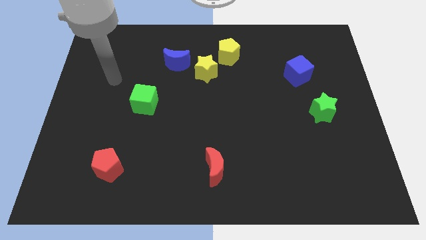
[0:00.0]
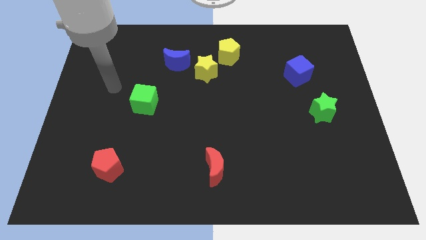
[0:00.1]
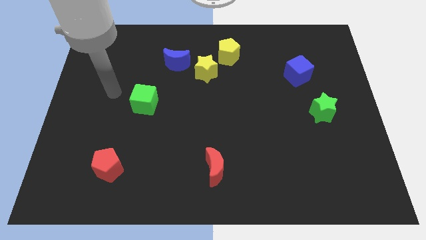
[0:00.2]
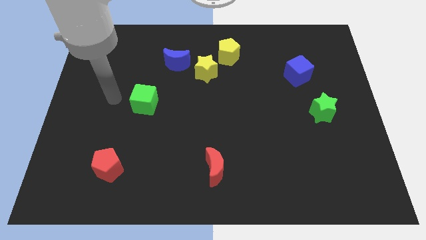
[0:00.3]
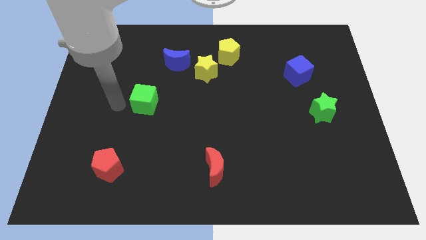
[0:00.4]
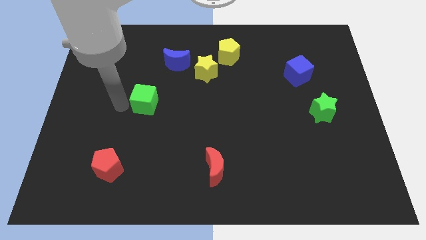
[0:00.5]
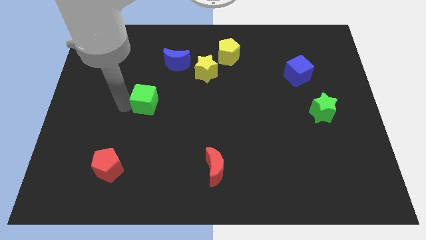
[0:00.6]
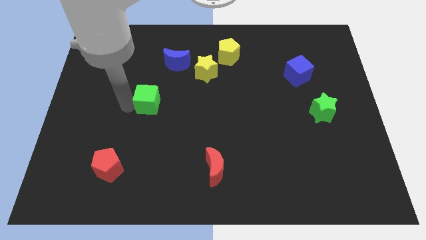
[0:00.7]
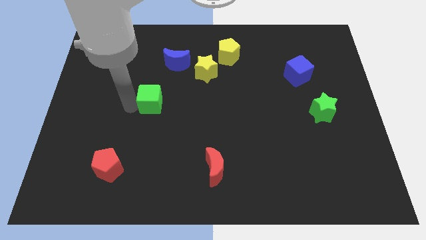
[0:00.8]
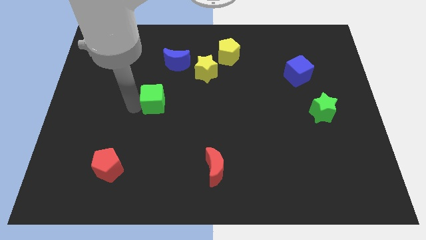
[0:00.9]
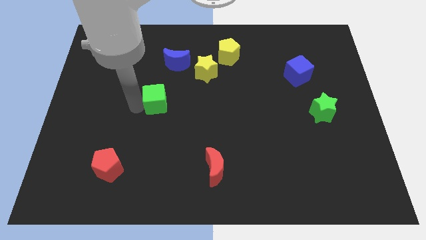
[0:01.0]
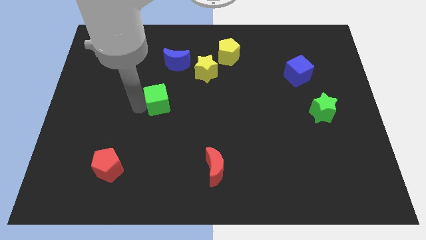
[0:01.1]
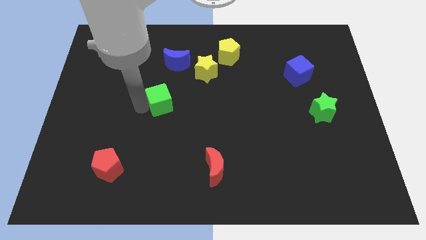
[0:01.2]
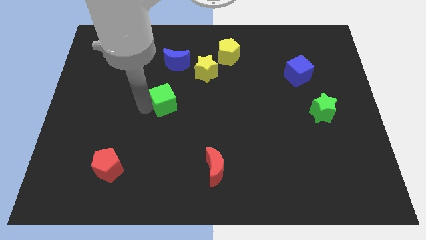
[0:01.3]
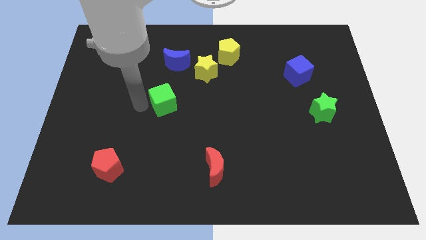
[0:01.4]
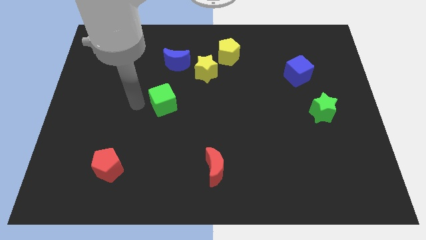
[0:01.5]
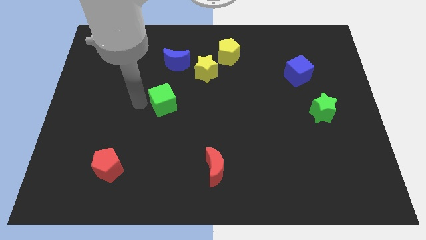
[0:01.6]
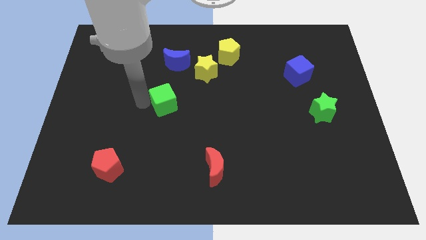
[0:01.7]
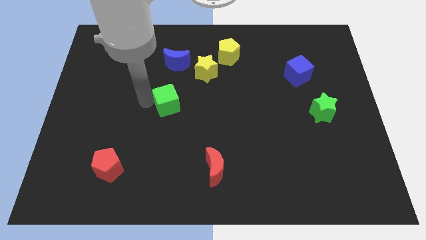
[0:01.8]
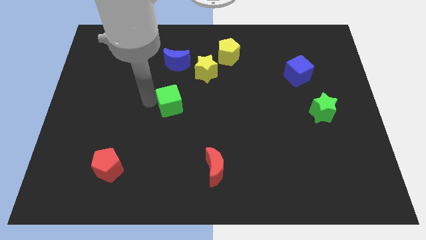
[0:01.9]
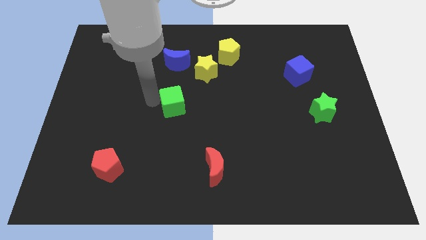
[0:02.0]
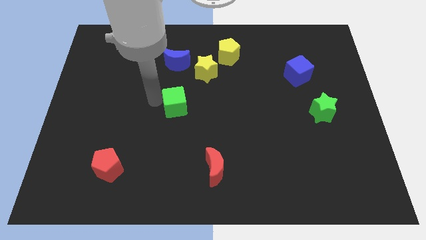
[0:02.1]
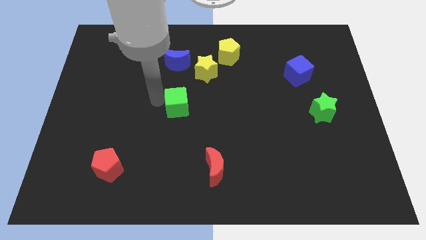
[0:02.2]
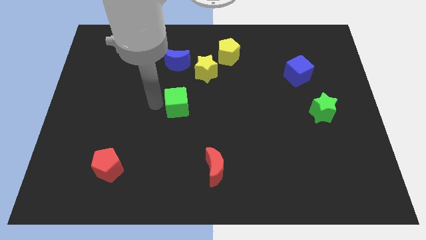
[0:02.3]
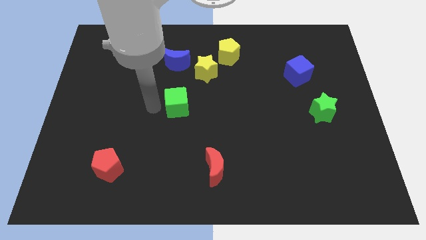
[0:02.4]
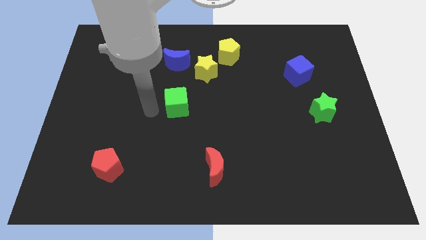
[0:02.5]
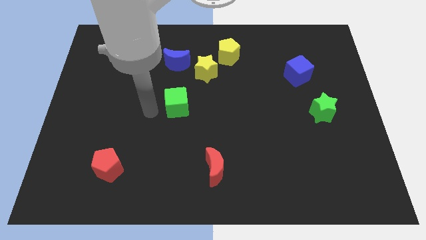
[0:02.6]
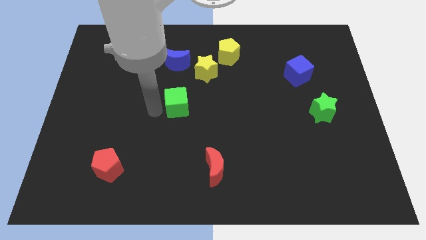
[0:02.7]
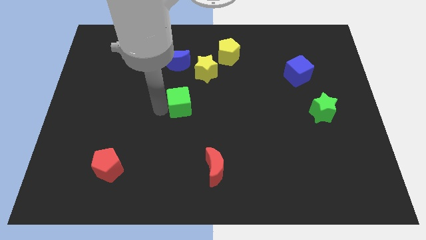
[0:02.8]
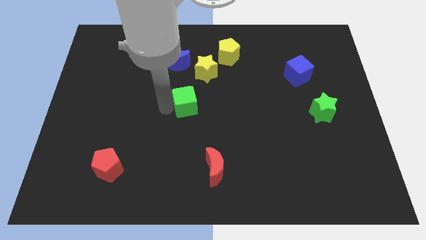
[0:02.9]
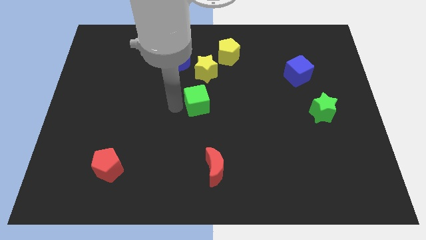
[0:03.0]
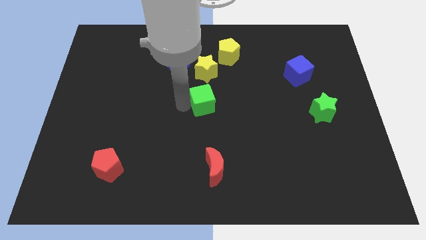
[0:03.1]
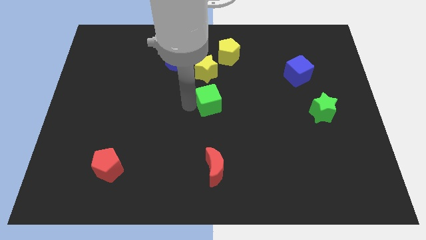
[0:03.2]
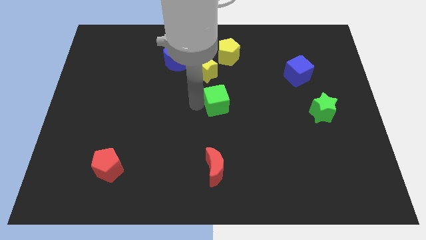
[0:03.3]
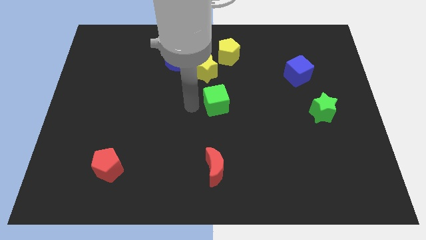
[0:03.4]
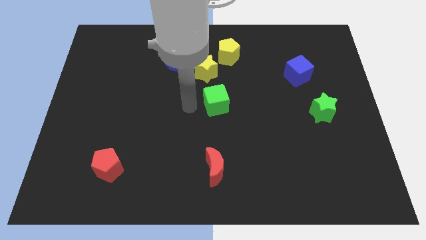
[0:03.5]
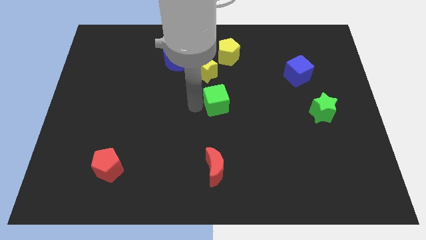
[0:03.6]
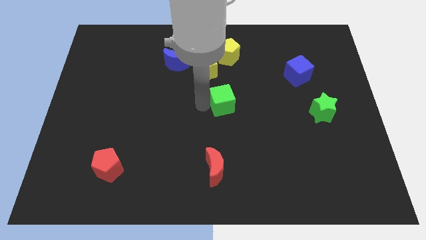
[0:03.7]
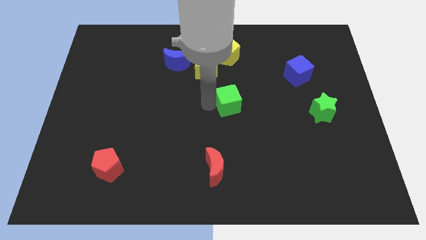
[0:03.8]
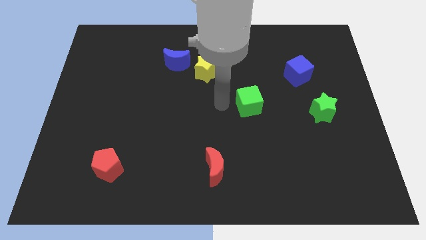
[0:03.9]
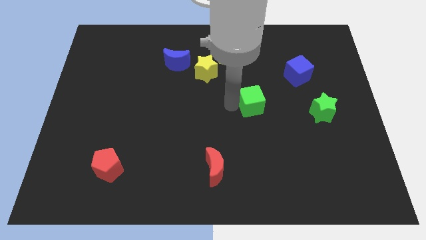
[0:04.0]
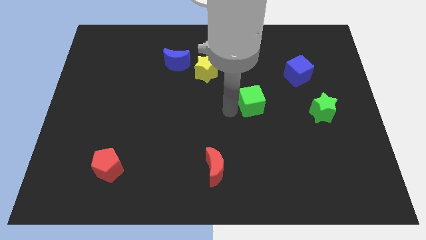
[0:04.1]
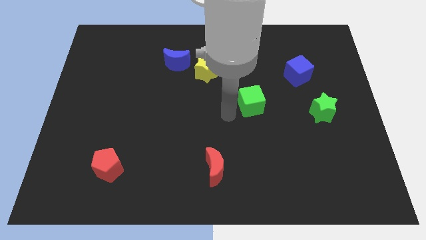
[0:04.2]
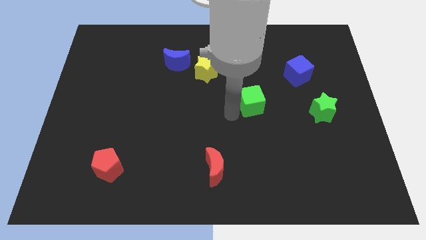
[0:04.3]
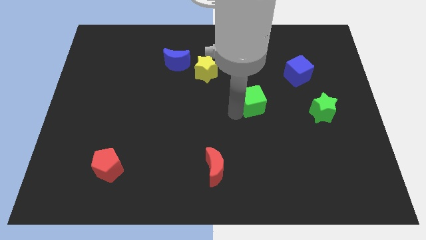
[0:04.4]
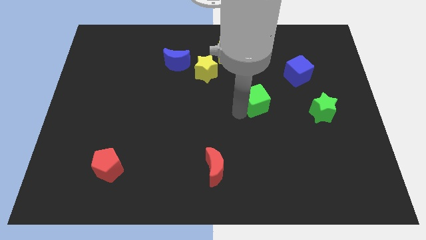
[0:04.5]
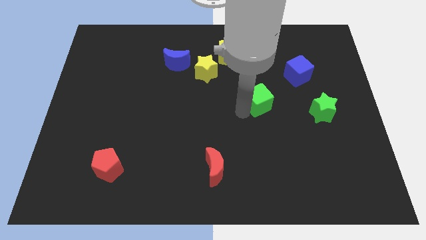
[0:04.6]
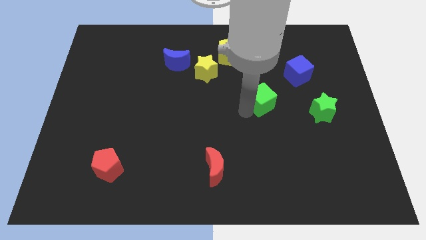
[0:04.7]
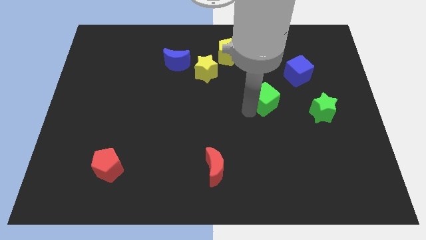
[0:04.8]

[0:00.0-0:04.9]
move the green cube to the bottom left side of the blue cube

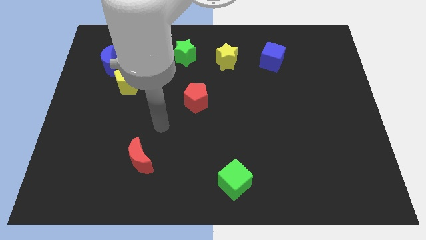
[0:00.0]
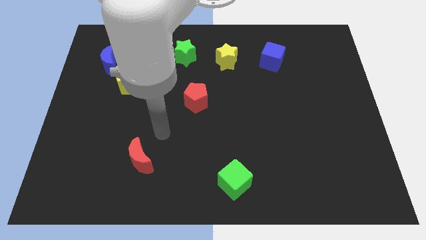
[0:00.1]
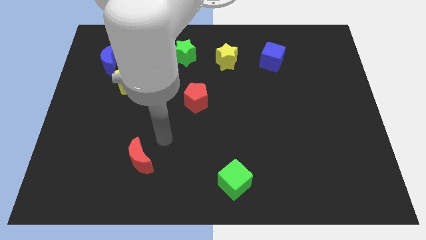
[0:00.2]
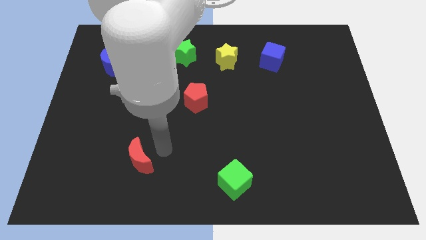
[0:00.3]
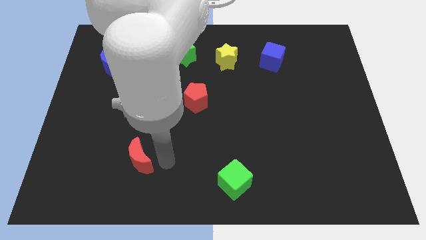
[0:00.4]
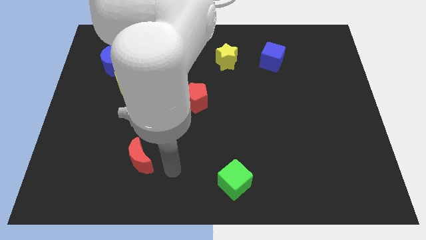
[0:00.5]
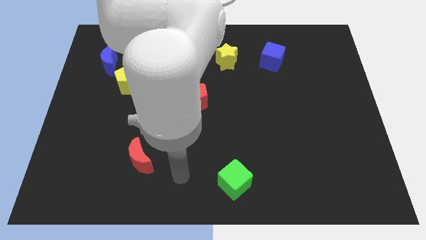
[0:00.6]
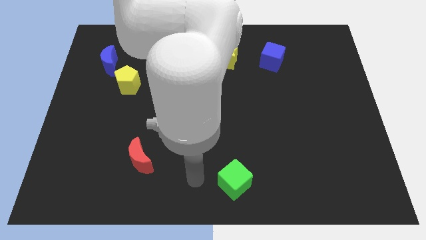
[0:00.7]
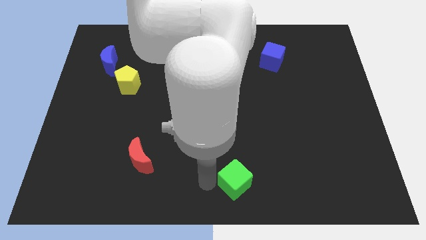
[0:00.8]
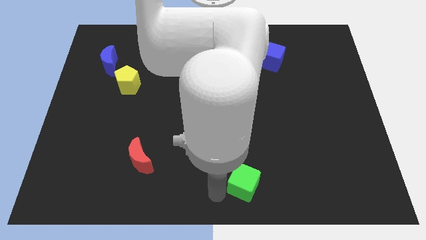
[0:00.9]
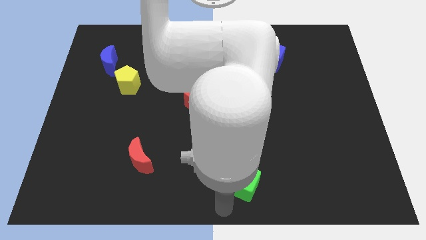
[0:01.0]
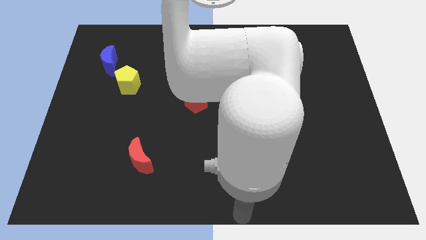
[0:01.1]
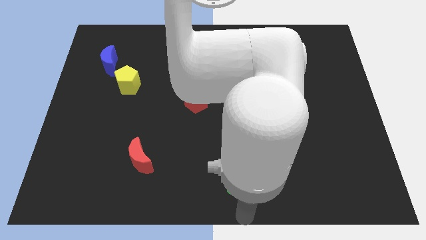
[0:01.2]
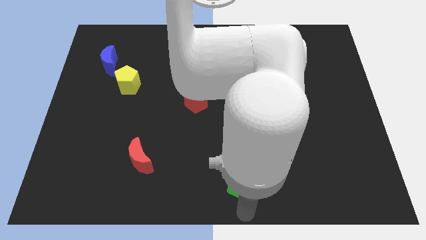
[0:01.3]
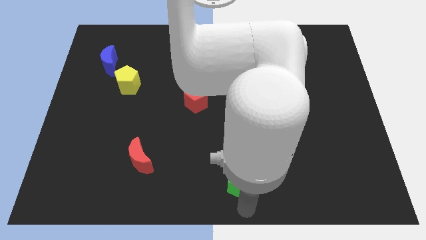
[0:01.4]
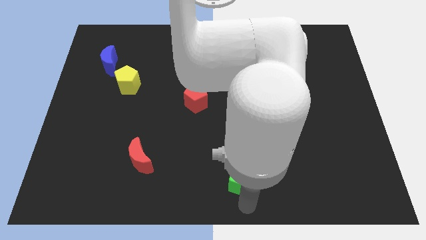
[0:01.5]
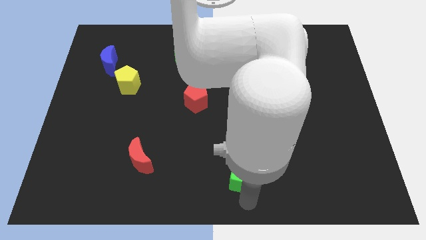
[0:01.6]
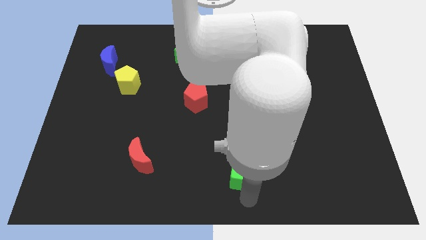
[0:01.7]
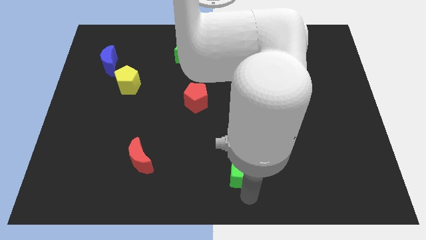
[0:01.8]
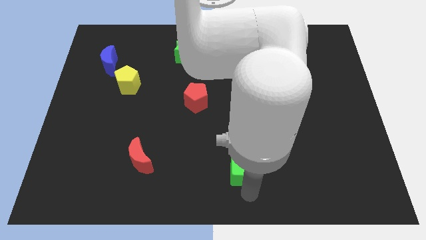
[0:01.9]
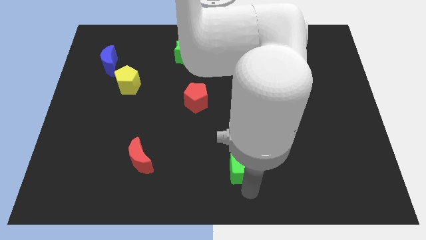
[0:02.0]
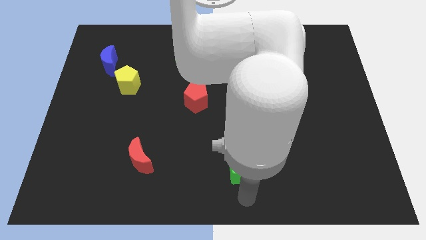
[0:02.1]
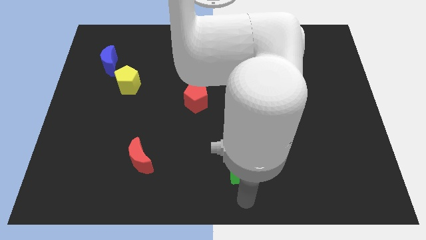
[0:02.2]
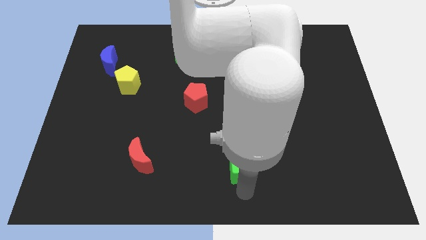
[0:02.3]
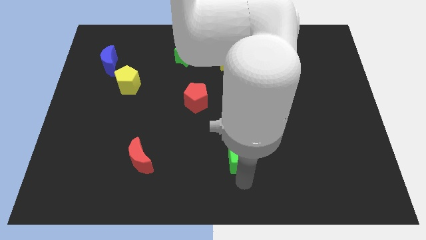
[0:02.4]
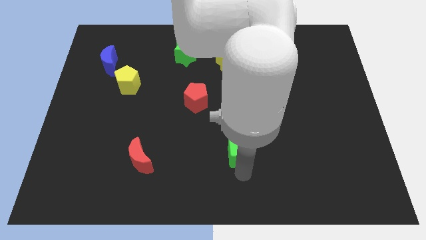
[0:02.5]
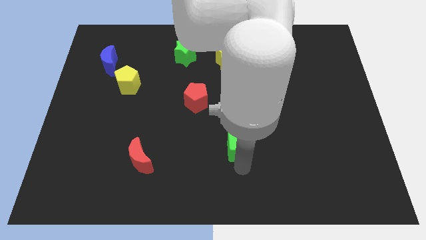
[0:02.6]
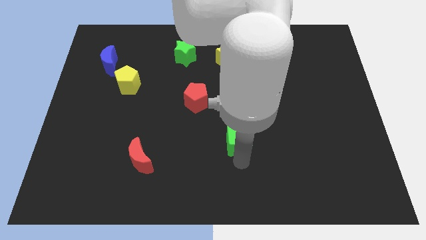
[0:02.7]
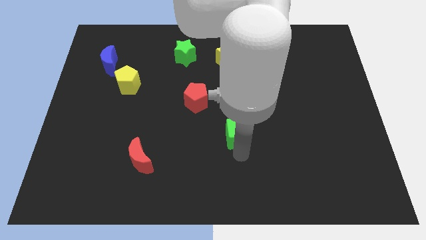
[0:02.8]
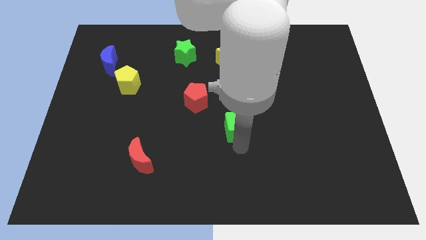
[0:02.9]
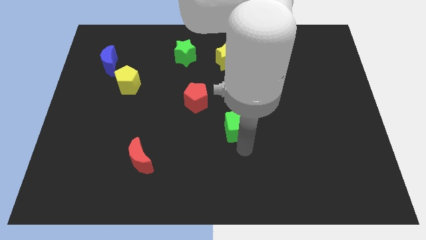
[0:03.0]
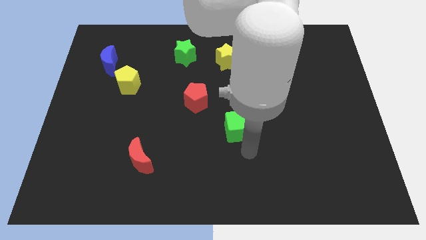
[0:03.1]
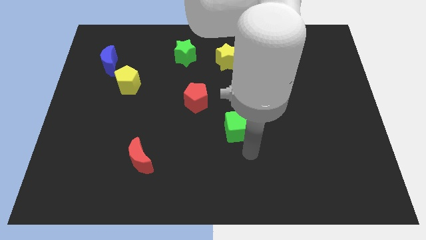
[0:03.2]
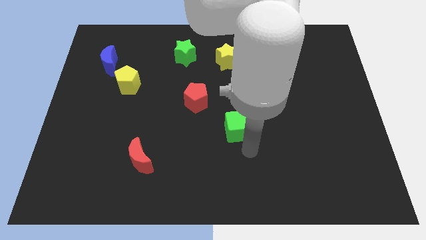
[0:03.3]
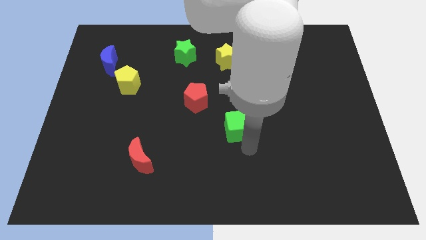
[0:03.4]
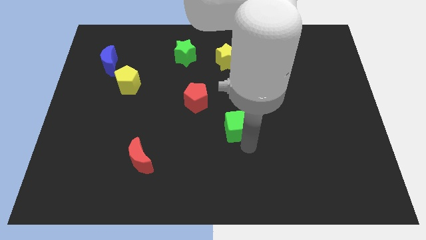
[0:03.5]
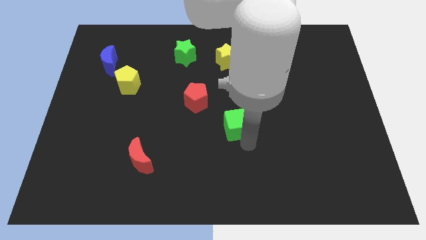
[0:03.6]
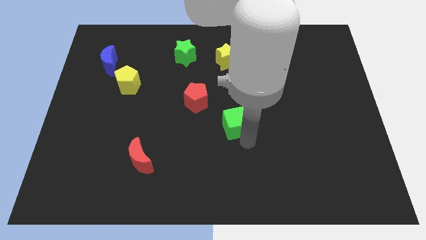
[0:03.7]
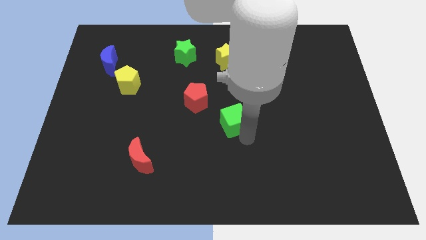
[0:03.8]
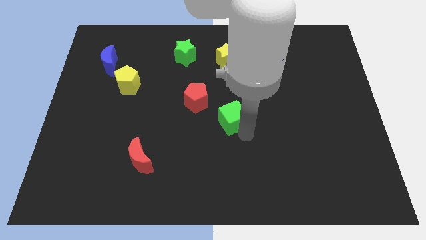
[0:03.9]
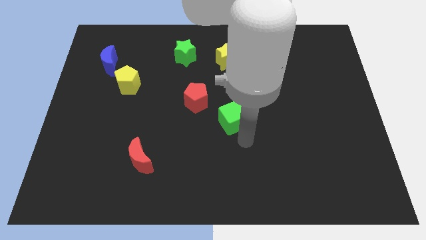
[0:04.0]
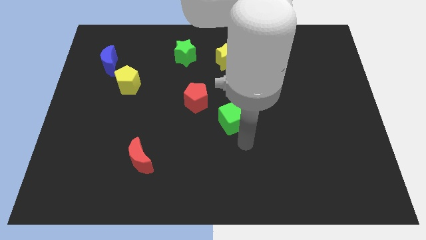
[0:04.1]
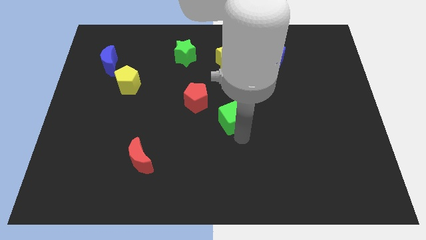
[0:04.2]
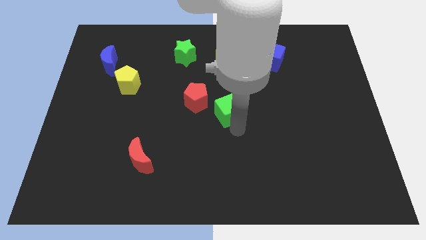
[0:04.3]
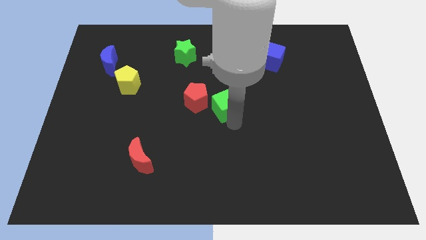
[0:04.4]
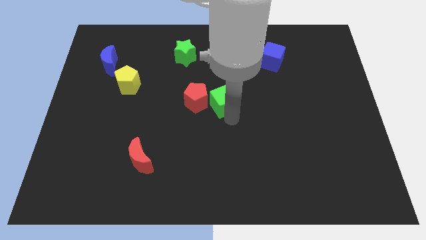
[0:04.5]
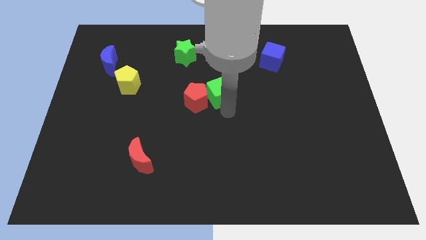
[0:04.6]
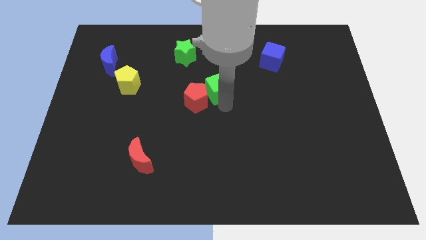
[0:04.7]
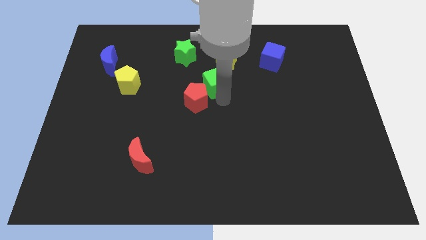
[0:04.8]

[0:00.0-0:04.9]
put the green cube diagonally down and to the left of the yellow star
